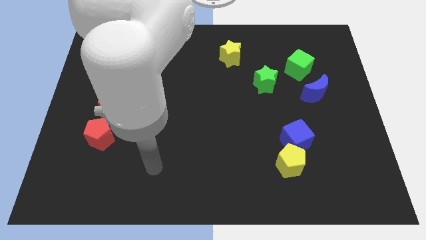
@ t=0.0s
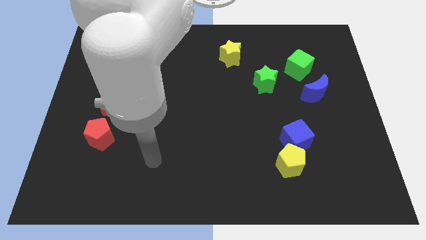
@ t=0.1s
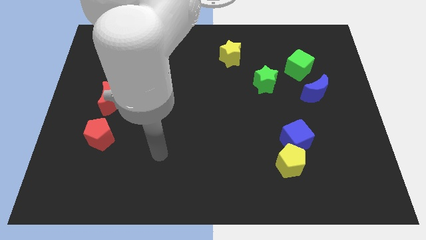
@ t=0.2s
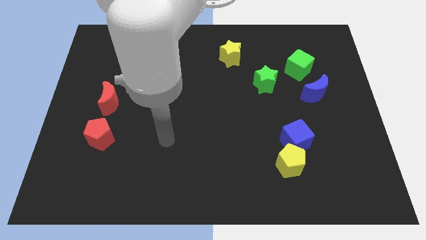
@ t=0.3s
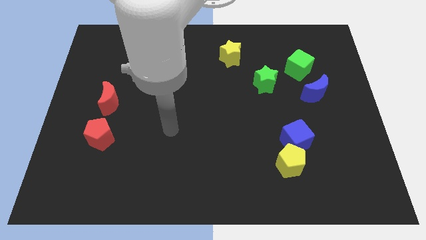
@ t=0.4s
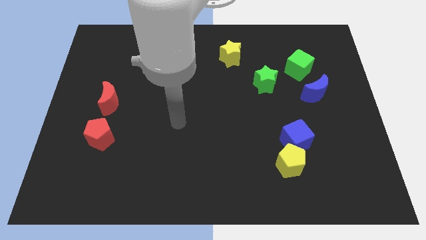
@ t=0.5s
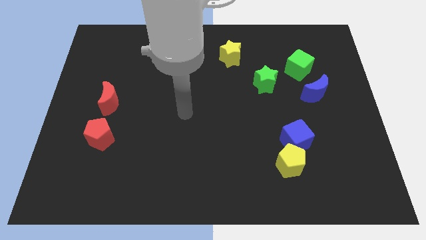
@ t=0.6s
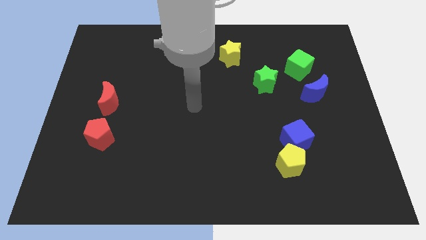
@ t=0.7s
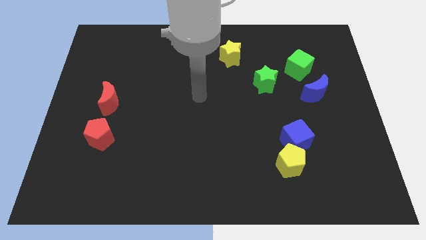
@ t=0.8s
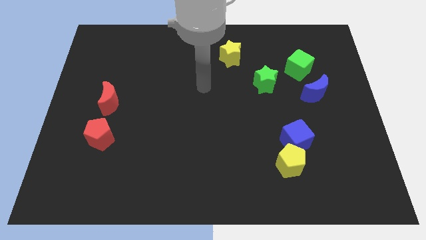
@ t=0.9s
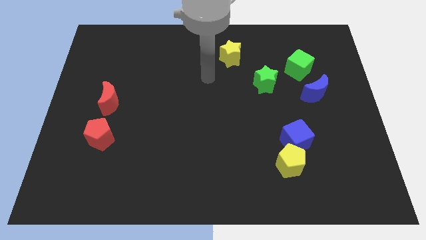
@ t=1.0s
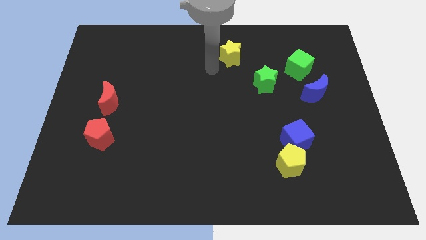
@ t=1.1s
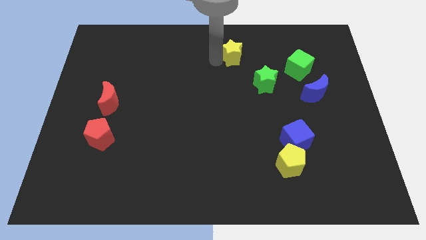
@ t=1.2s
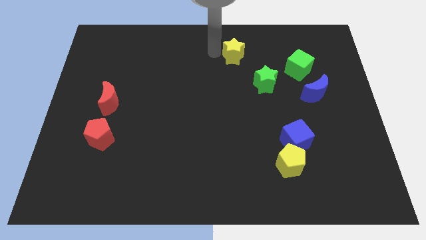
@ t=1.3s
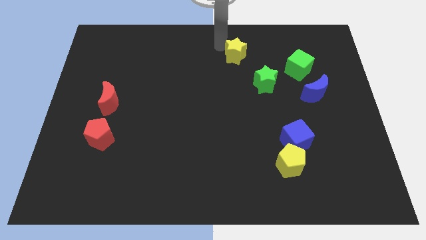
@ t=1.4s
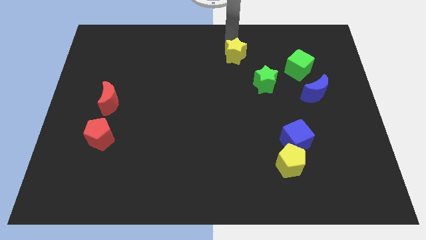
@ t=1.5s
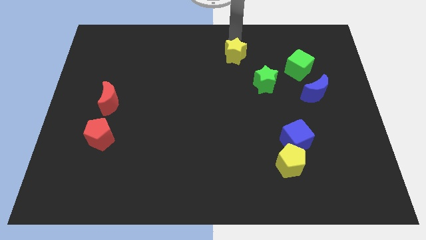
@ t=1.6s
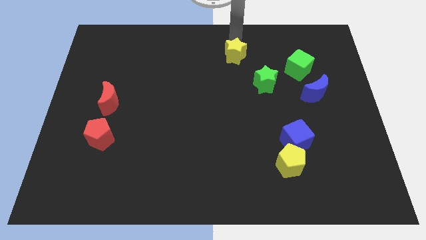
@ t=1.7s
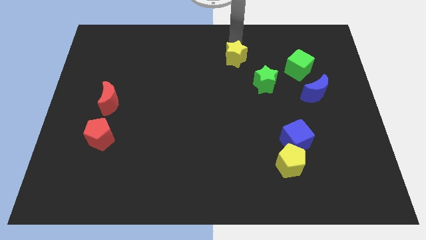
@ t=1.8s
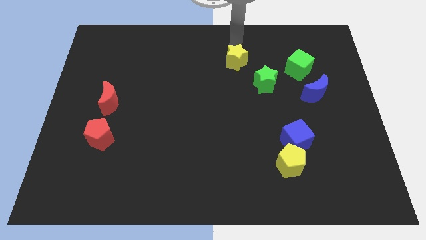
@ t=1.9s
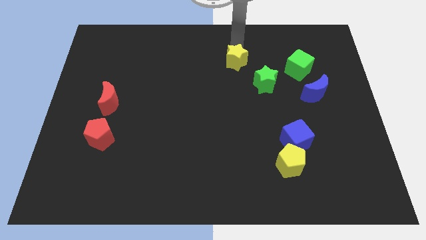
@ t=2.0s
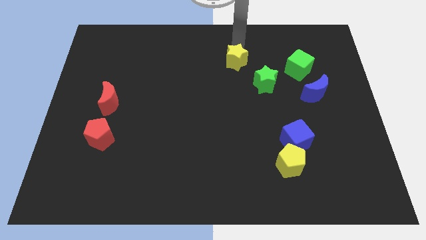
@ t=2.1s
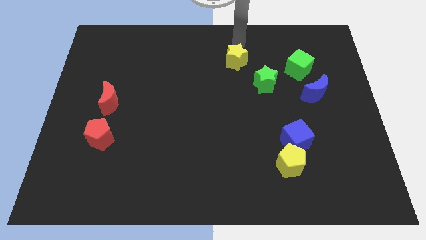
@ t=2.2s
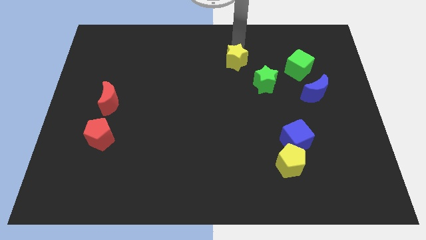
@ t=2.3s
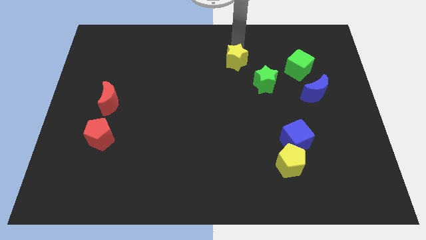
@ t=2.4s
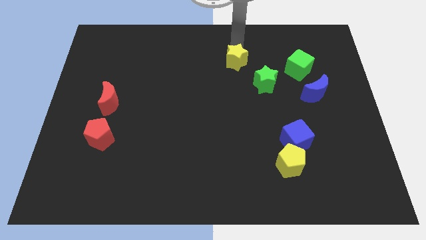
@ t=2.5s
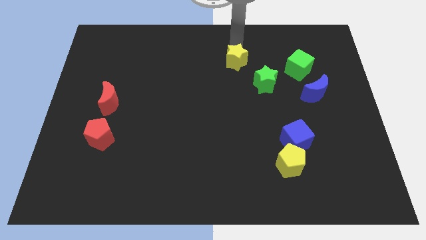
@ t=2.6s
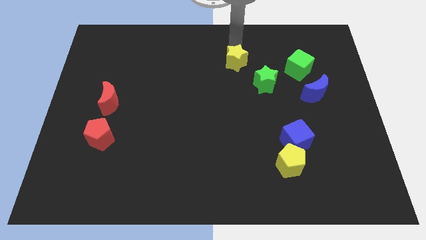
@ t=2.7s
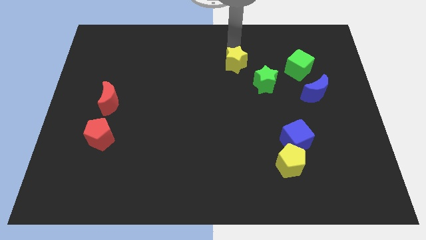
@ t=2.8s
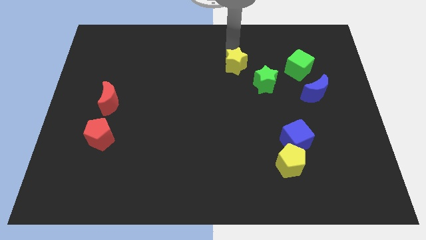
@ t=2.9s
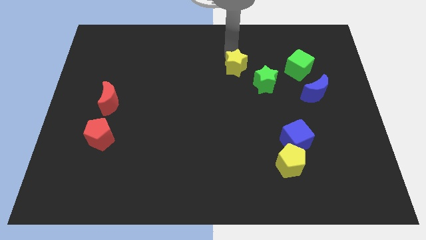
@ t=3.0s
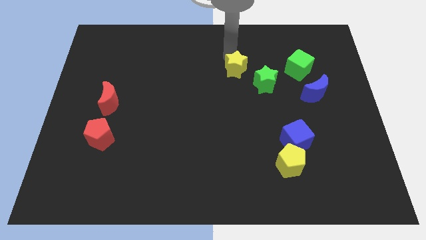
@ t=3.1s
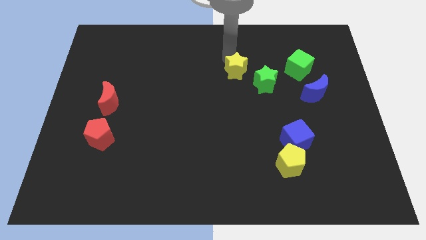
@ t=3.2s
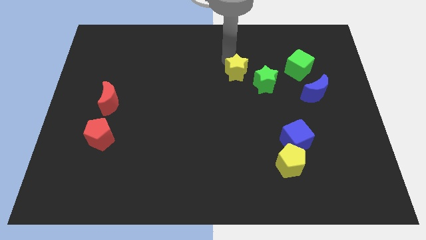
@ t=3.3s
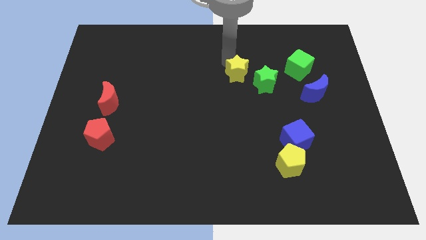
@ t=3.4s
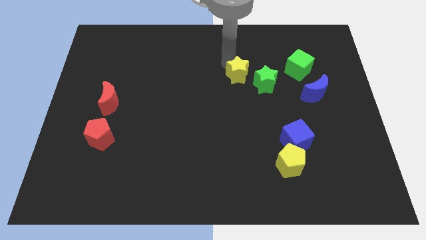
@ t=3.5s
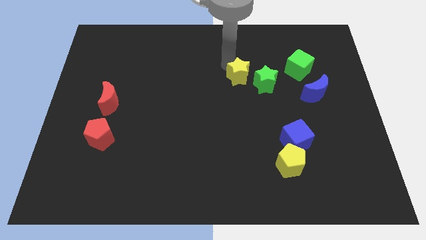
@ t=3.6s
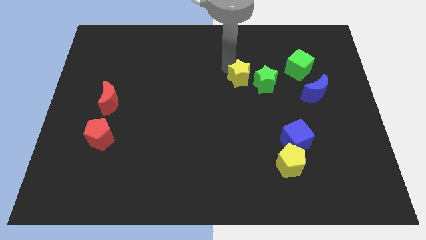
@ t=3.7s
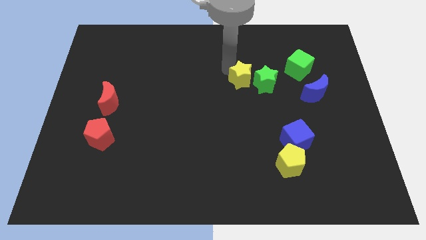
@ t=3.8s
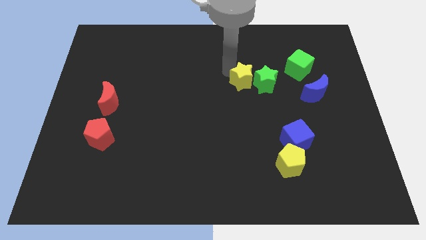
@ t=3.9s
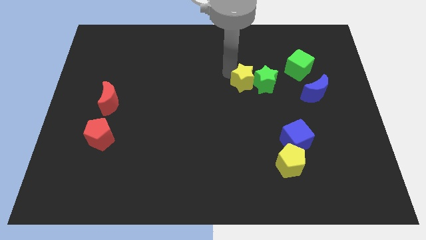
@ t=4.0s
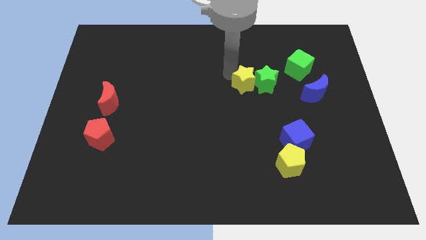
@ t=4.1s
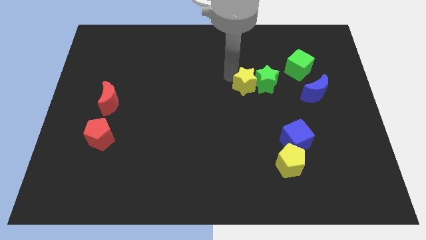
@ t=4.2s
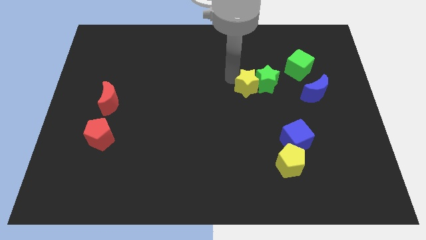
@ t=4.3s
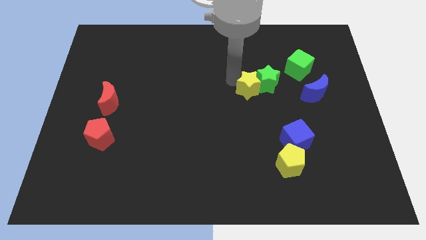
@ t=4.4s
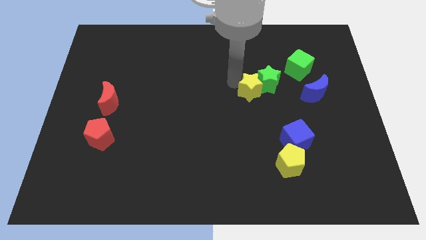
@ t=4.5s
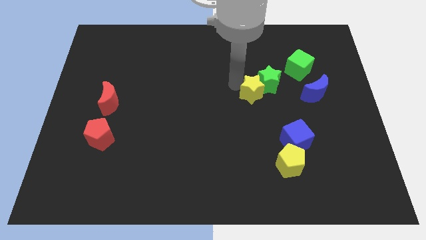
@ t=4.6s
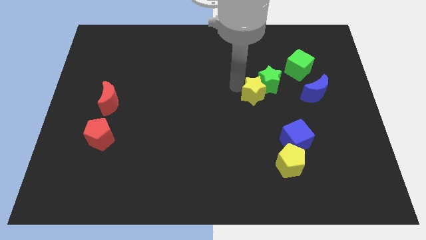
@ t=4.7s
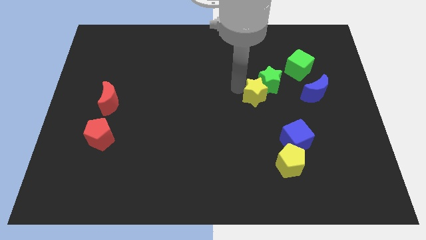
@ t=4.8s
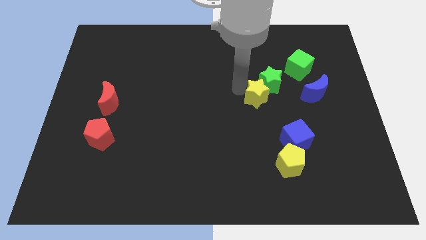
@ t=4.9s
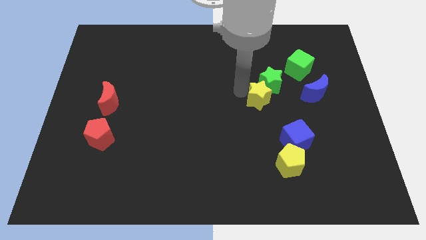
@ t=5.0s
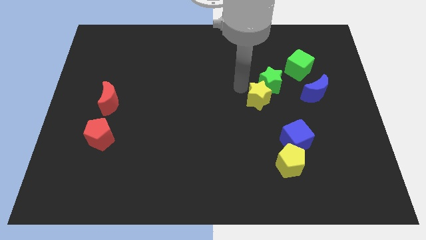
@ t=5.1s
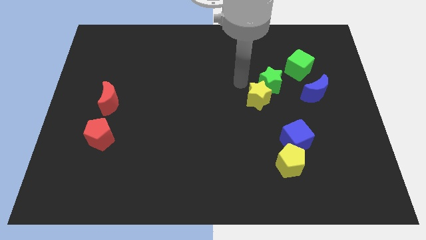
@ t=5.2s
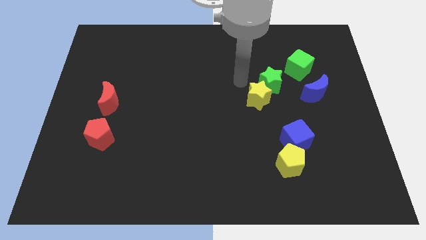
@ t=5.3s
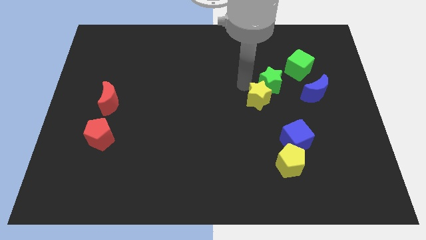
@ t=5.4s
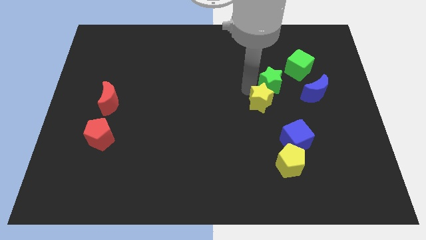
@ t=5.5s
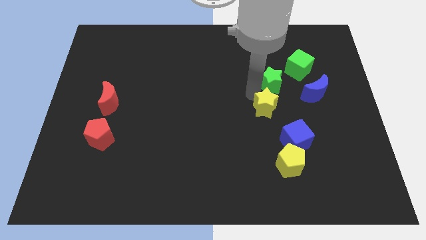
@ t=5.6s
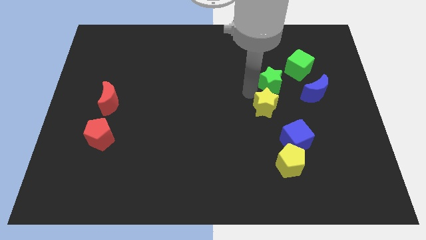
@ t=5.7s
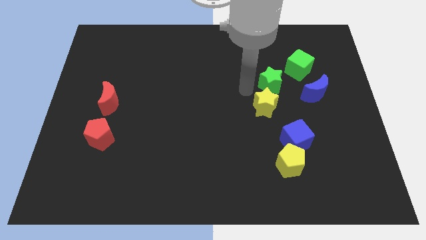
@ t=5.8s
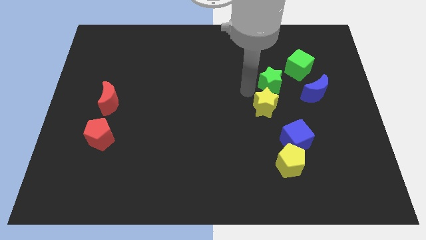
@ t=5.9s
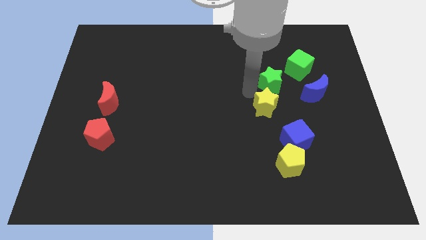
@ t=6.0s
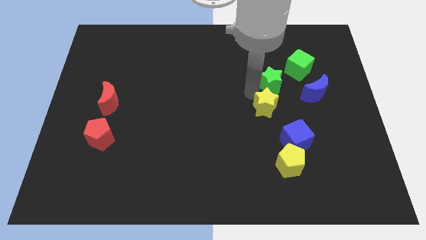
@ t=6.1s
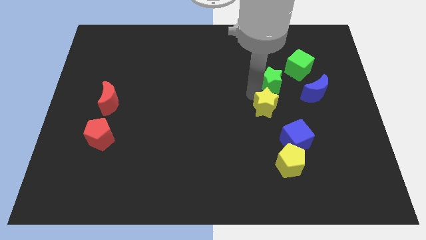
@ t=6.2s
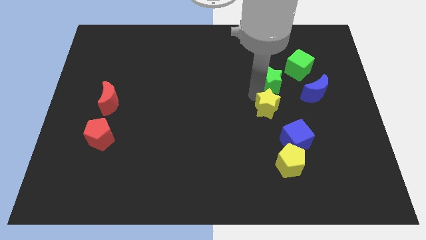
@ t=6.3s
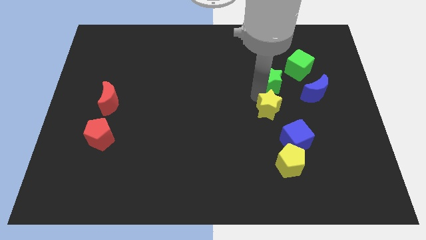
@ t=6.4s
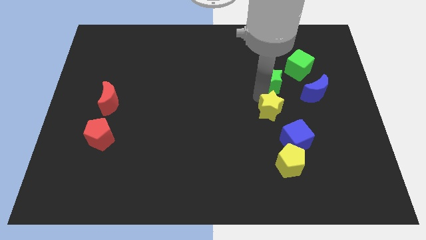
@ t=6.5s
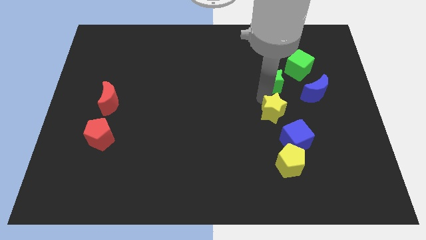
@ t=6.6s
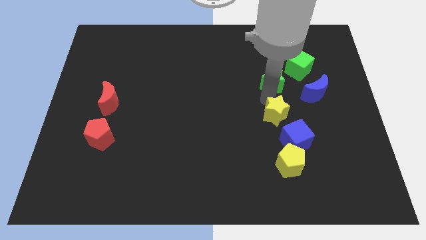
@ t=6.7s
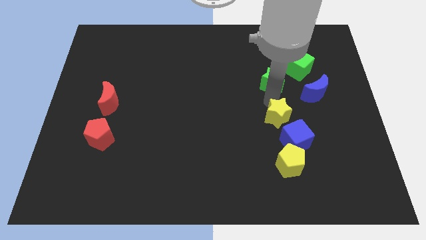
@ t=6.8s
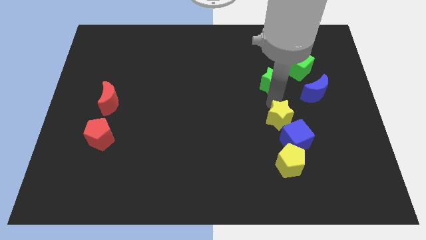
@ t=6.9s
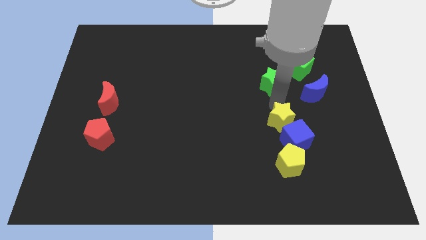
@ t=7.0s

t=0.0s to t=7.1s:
put the yellow star close to the blue cube

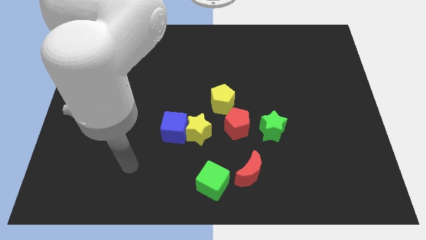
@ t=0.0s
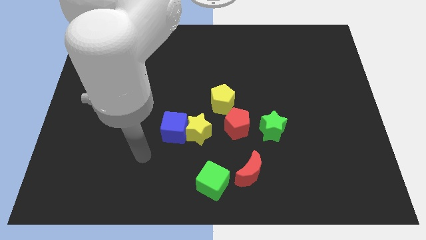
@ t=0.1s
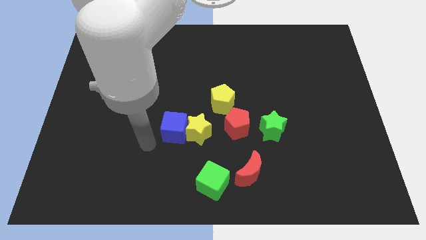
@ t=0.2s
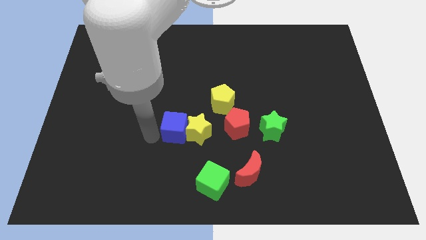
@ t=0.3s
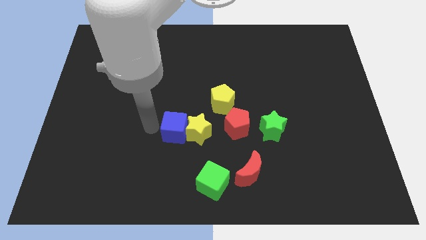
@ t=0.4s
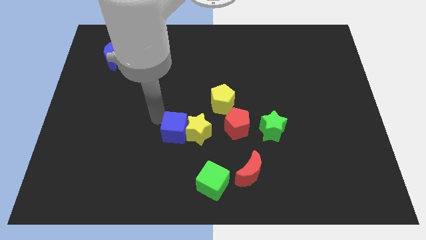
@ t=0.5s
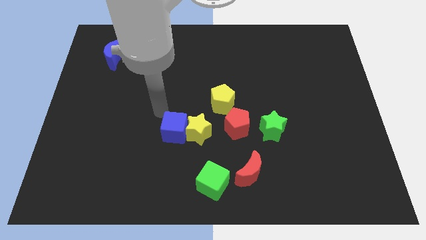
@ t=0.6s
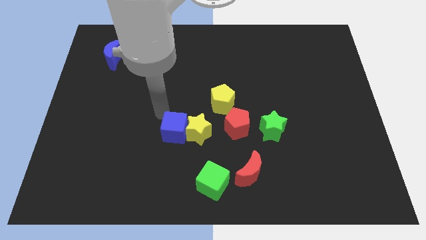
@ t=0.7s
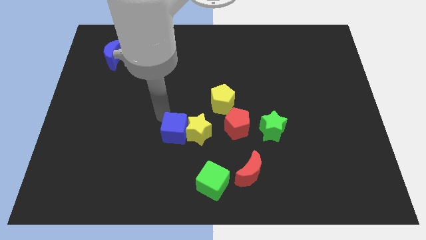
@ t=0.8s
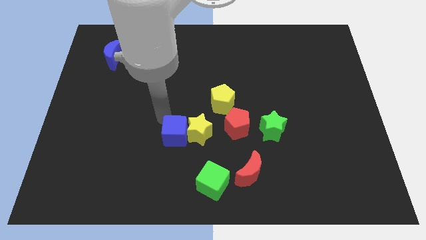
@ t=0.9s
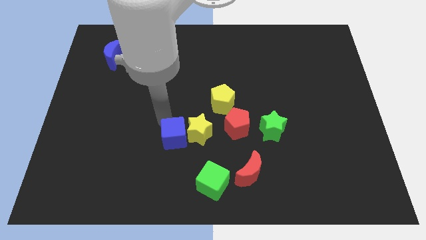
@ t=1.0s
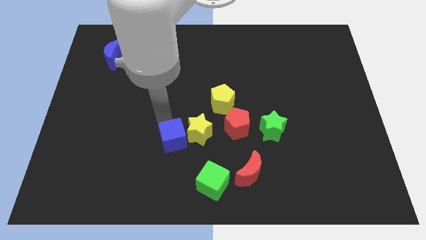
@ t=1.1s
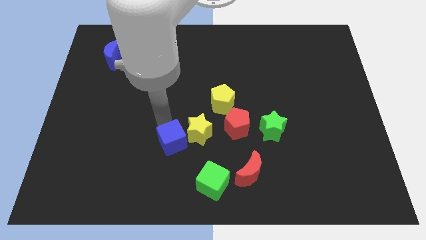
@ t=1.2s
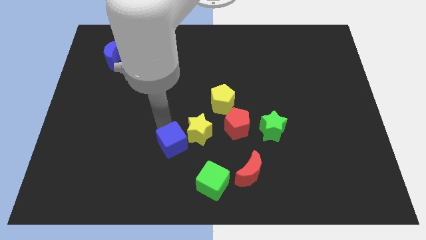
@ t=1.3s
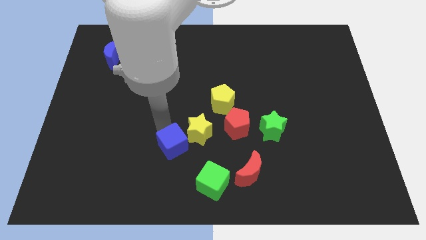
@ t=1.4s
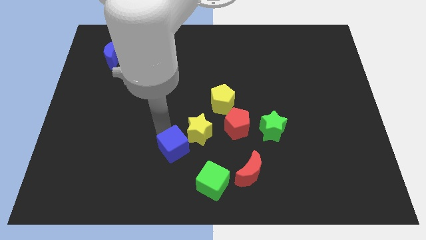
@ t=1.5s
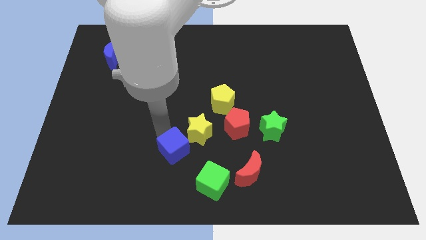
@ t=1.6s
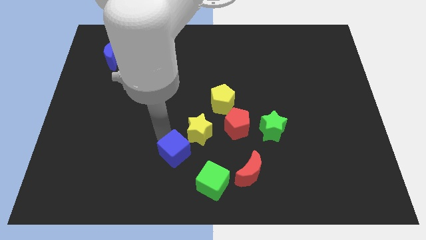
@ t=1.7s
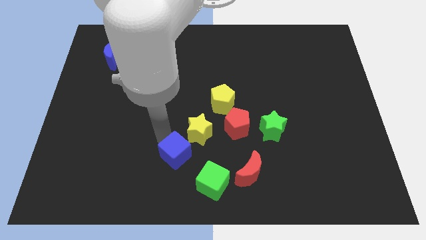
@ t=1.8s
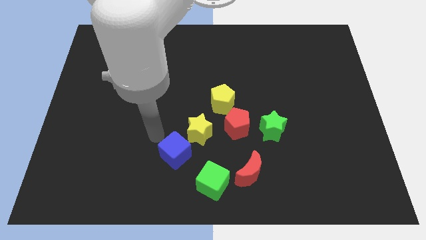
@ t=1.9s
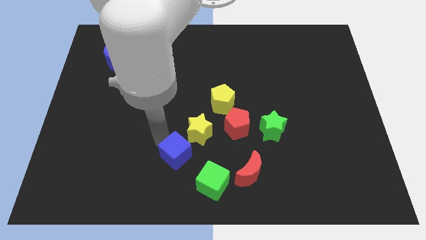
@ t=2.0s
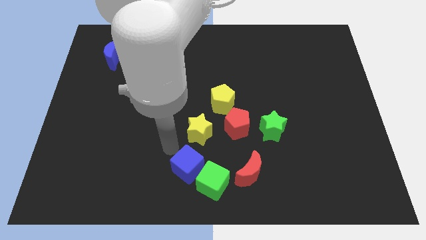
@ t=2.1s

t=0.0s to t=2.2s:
put the blue cube next to the green cube
